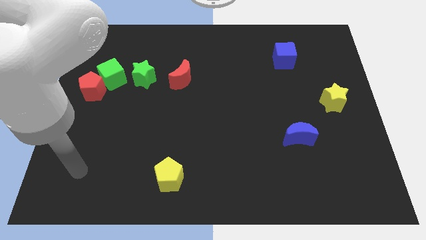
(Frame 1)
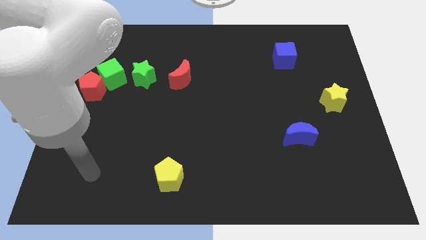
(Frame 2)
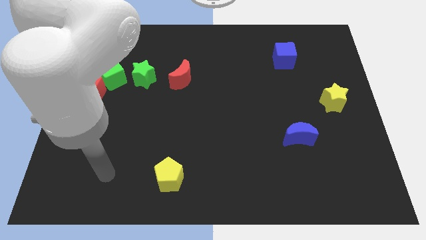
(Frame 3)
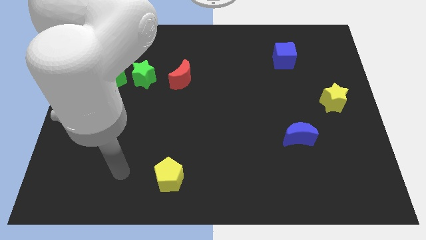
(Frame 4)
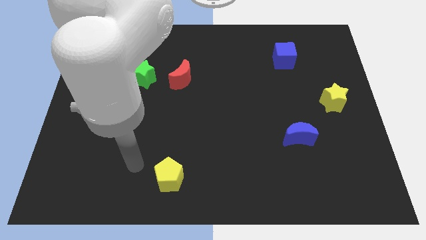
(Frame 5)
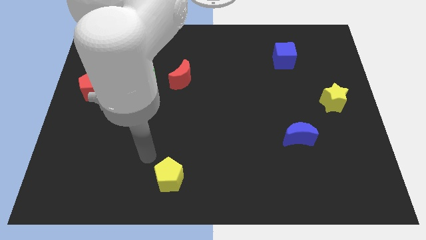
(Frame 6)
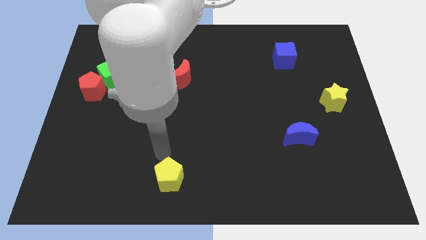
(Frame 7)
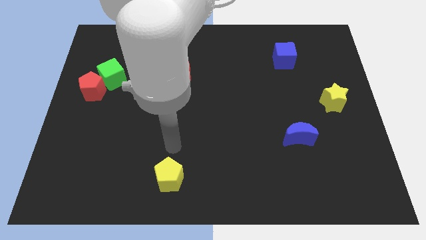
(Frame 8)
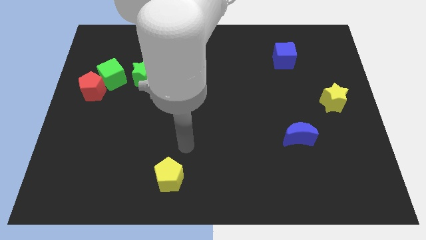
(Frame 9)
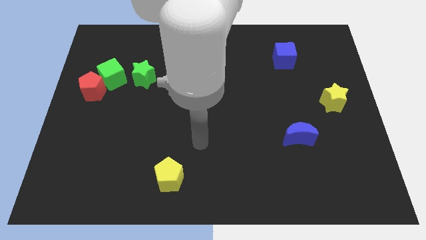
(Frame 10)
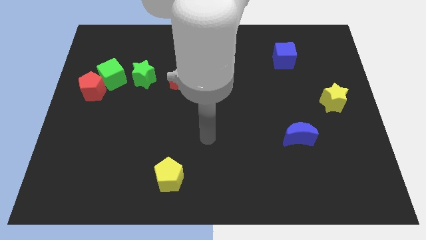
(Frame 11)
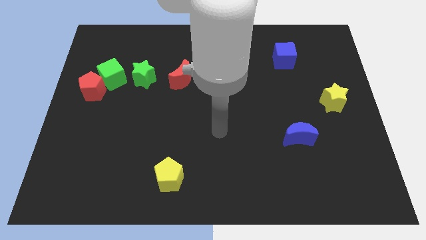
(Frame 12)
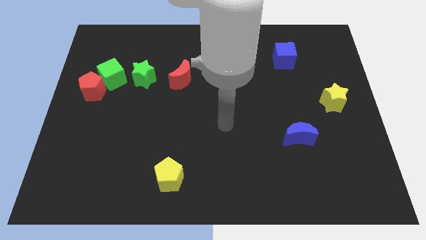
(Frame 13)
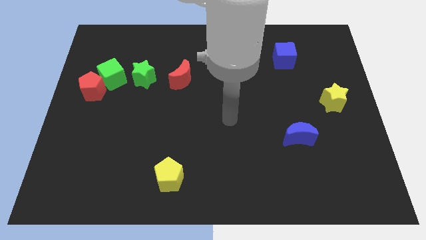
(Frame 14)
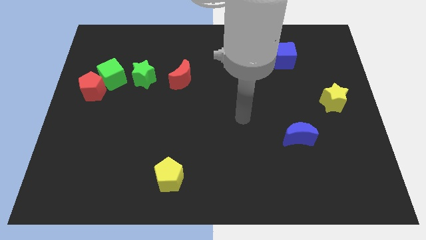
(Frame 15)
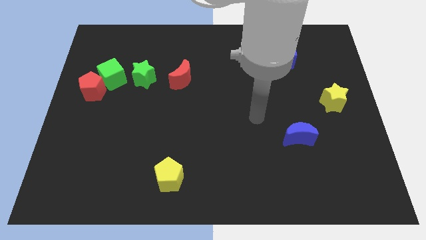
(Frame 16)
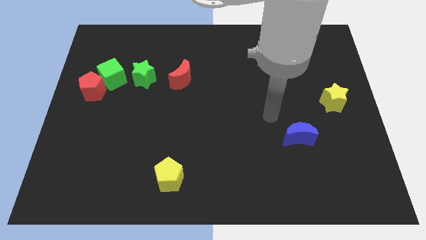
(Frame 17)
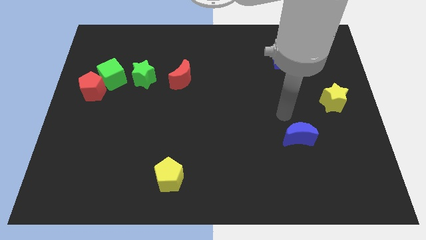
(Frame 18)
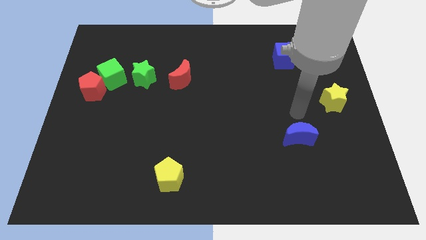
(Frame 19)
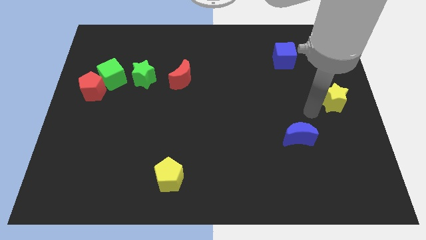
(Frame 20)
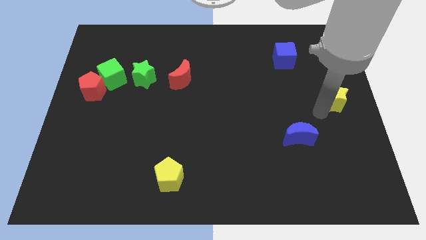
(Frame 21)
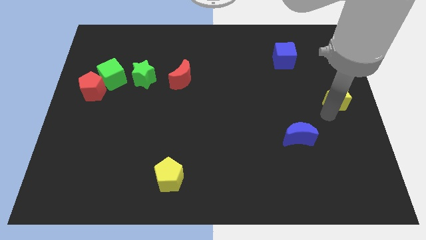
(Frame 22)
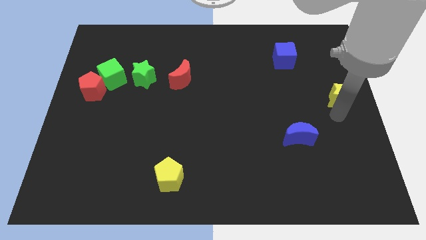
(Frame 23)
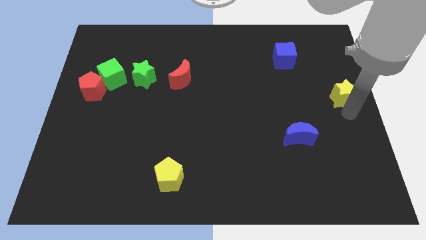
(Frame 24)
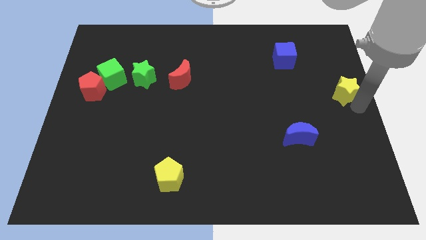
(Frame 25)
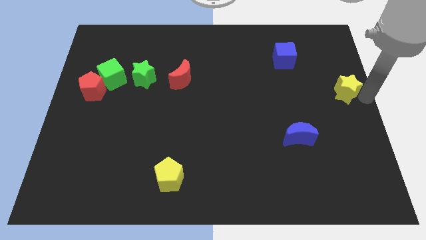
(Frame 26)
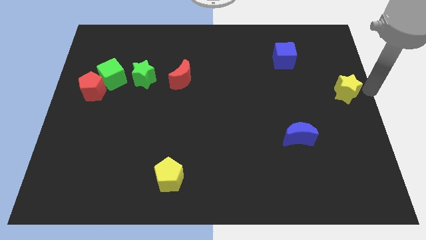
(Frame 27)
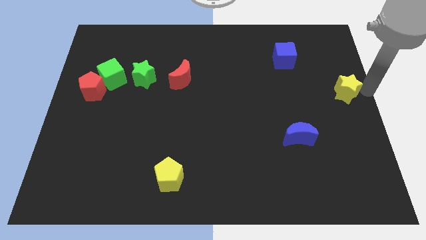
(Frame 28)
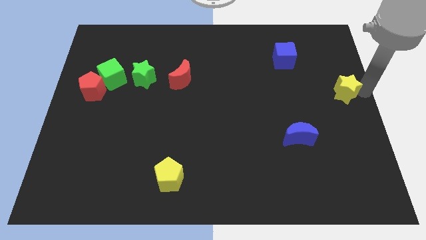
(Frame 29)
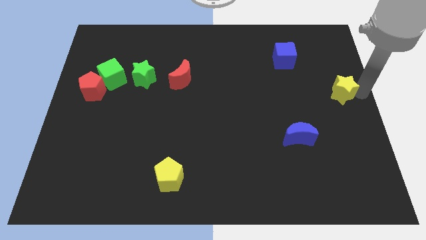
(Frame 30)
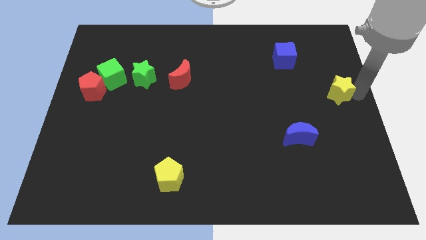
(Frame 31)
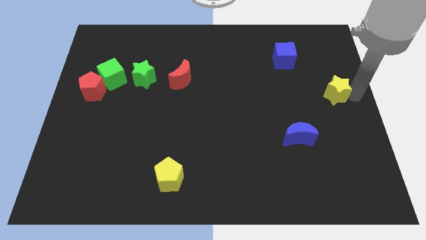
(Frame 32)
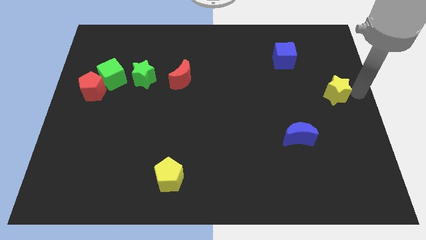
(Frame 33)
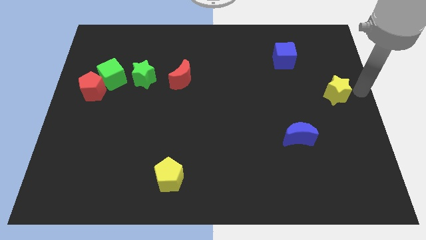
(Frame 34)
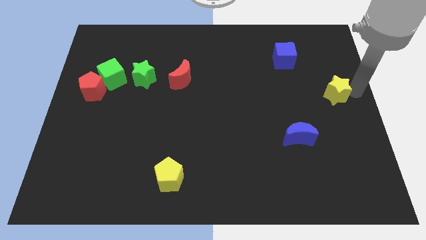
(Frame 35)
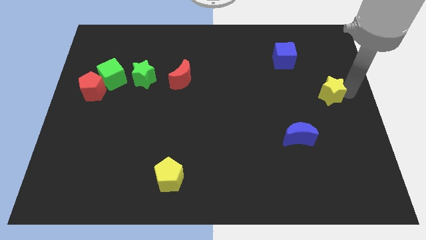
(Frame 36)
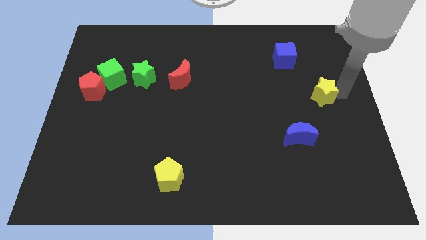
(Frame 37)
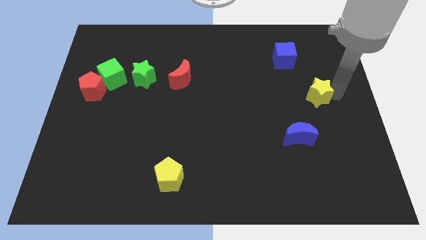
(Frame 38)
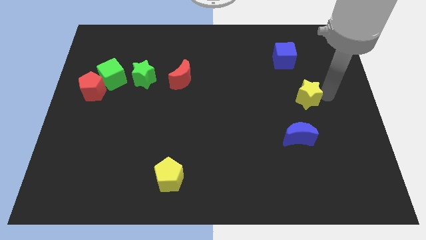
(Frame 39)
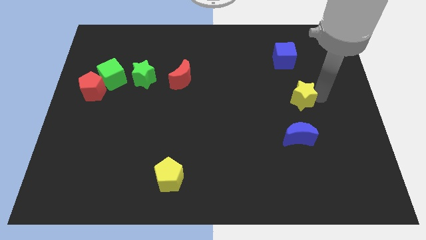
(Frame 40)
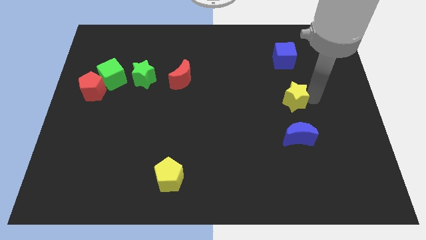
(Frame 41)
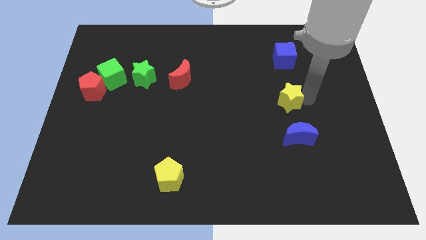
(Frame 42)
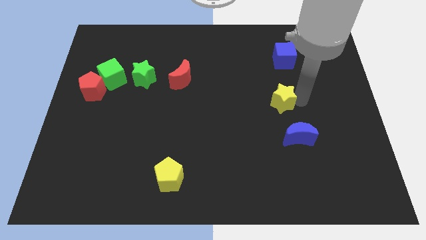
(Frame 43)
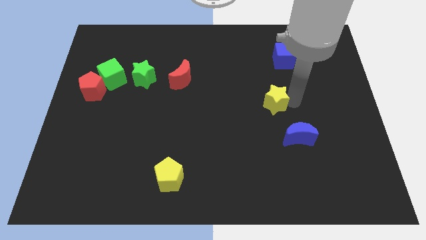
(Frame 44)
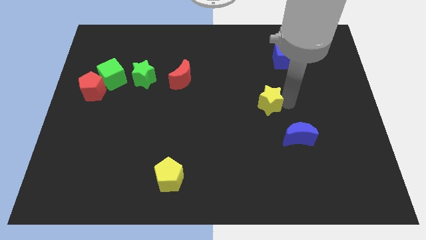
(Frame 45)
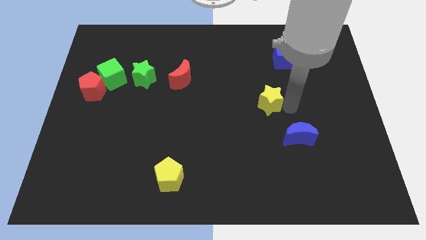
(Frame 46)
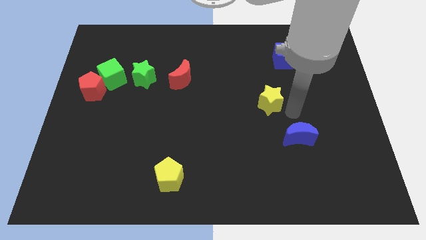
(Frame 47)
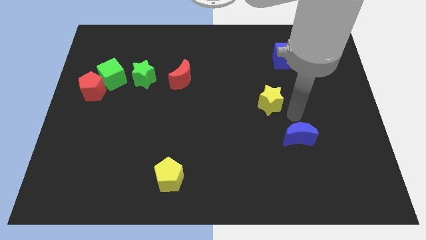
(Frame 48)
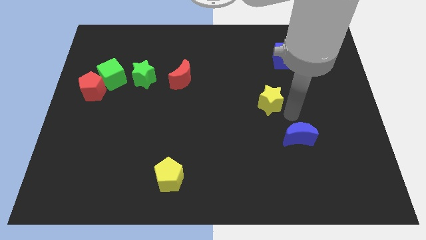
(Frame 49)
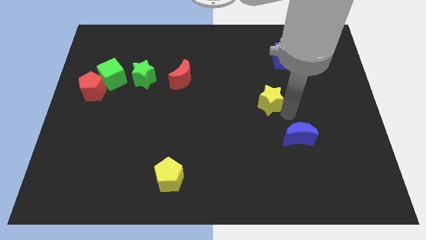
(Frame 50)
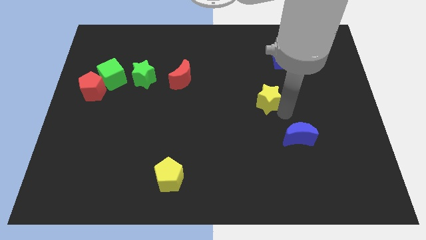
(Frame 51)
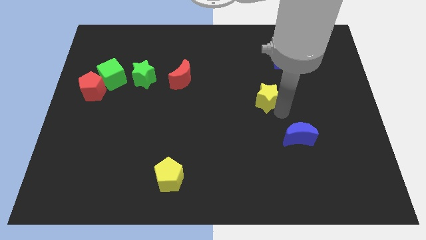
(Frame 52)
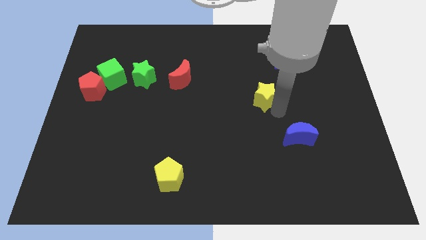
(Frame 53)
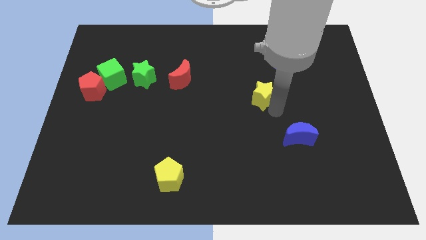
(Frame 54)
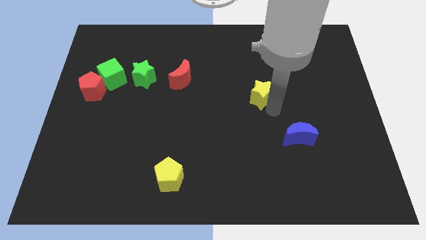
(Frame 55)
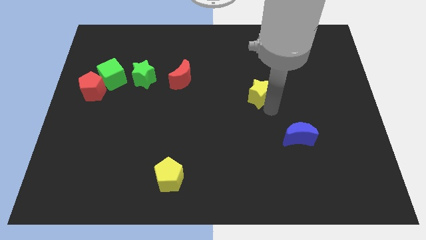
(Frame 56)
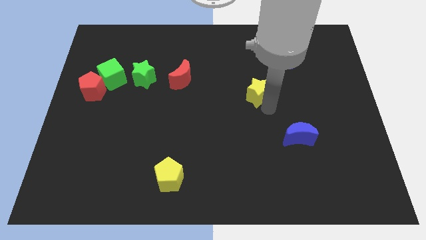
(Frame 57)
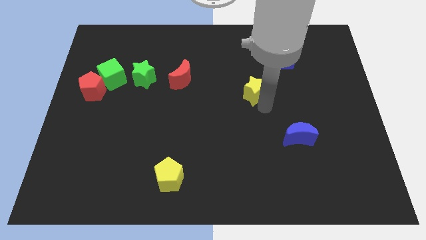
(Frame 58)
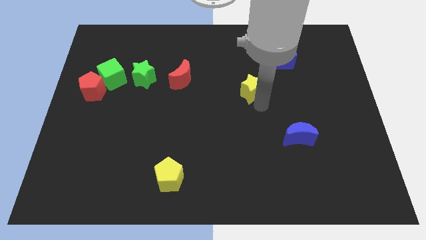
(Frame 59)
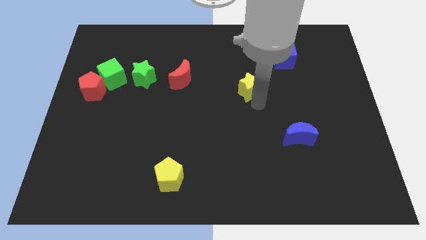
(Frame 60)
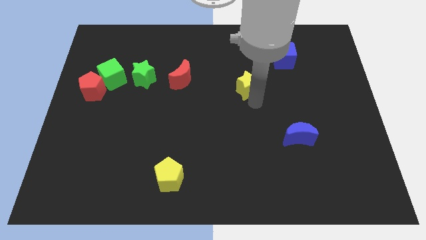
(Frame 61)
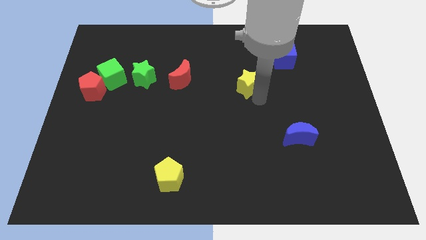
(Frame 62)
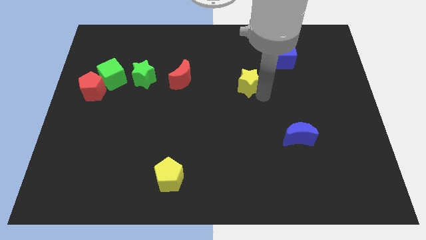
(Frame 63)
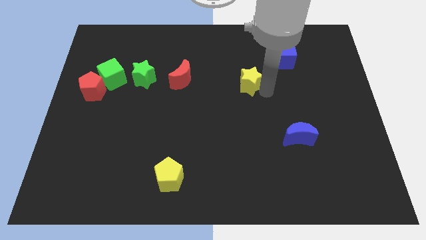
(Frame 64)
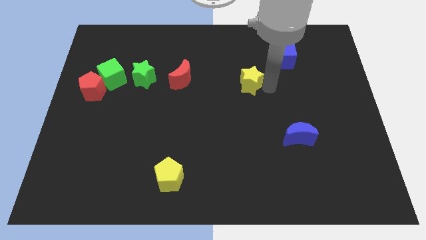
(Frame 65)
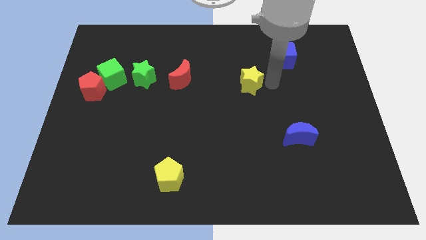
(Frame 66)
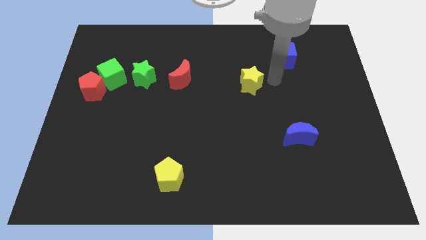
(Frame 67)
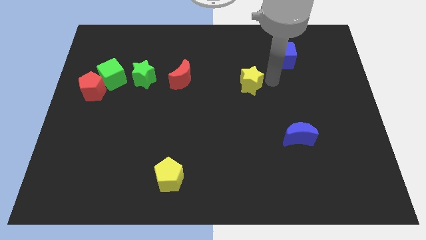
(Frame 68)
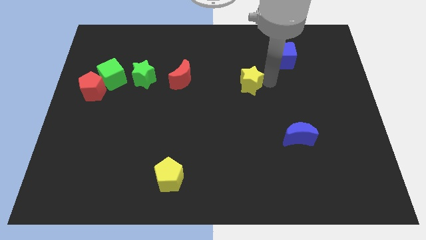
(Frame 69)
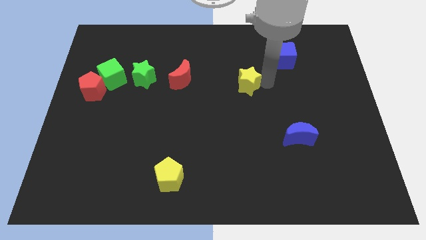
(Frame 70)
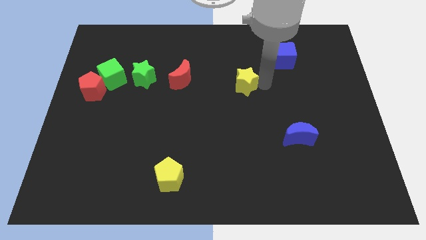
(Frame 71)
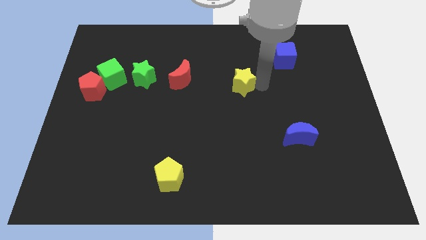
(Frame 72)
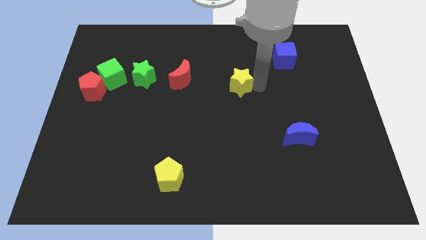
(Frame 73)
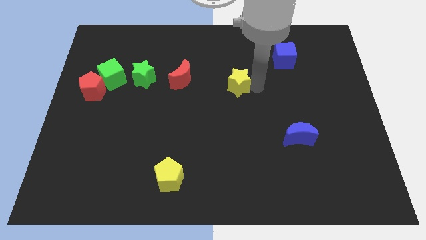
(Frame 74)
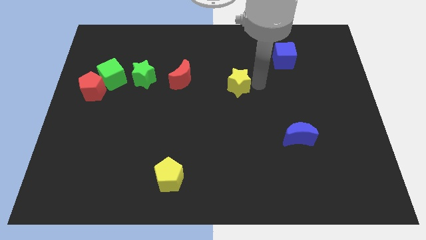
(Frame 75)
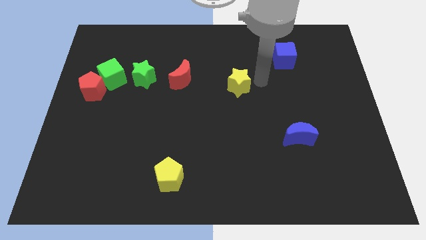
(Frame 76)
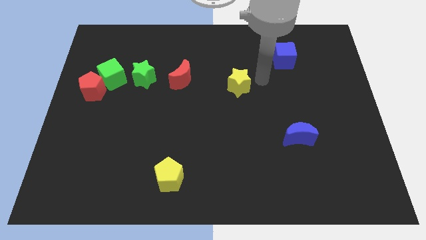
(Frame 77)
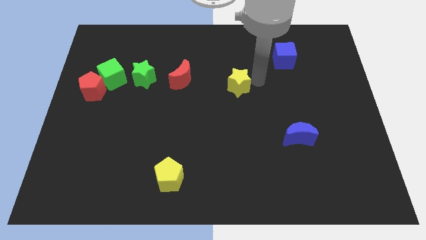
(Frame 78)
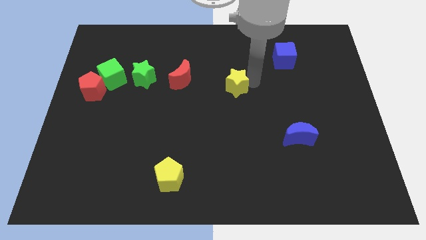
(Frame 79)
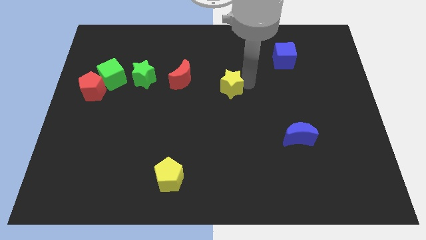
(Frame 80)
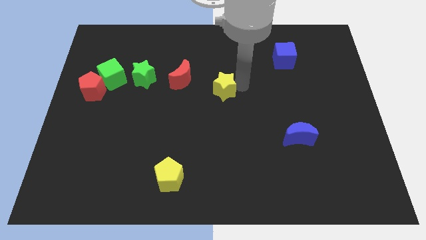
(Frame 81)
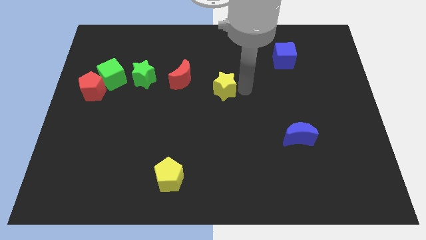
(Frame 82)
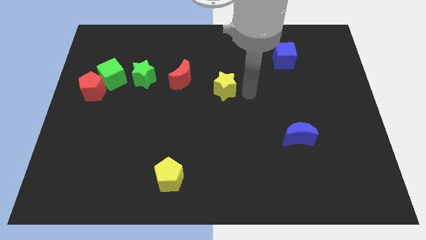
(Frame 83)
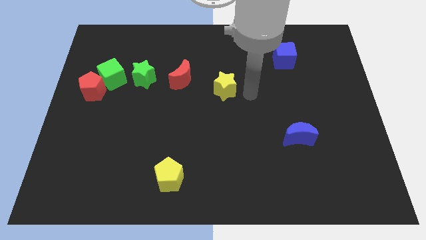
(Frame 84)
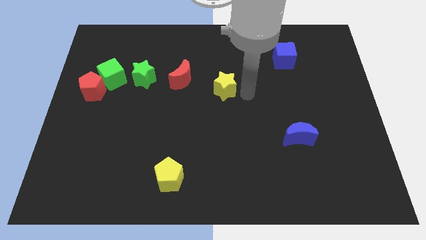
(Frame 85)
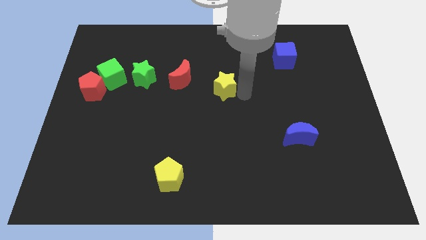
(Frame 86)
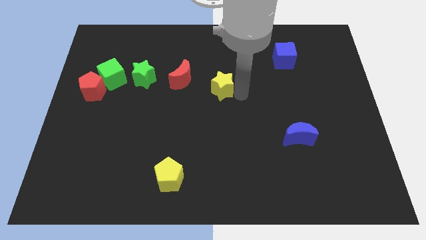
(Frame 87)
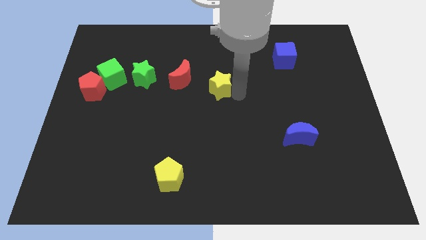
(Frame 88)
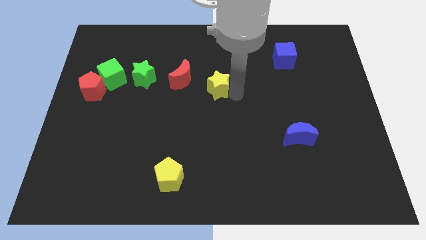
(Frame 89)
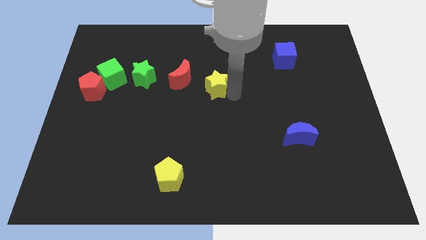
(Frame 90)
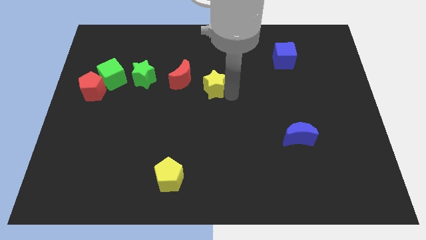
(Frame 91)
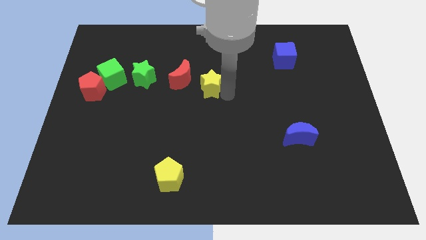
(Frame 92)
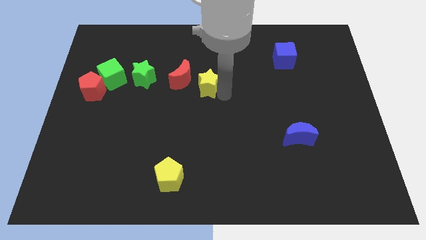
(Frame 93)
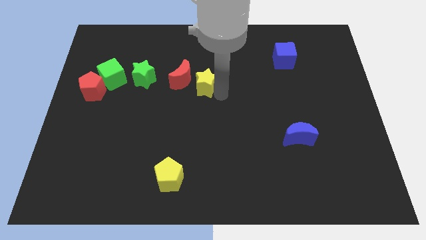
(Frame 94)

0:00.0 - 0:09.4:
move the yellow star to the red moon
